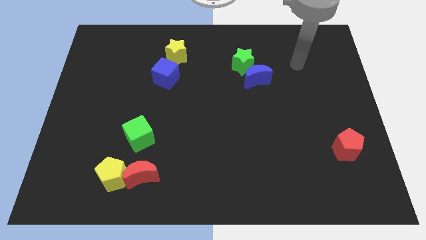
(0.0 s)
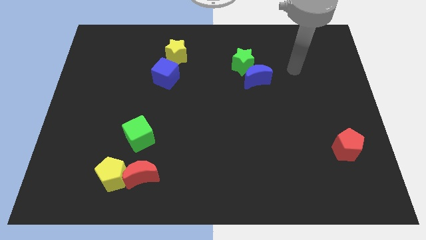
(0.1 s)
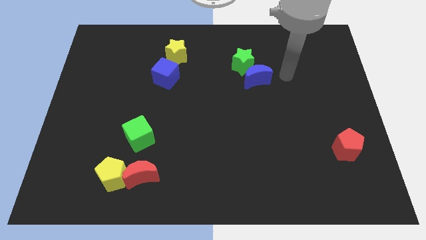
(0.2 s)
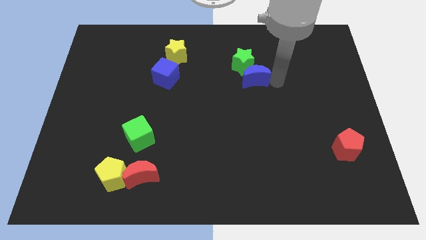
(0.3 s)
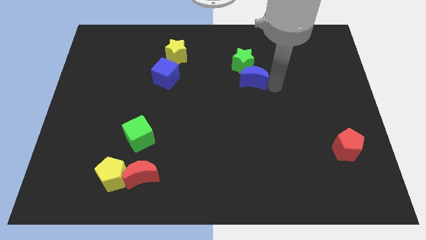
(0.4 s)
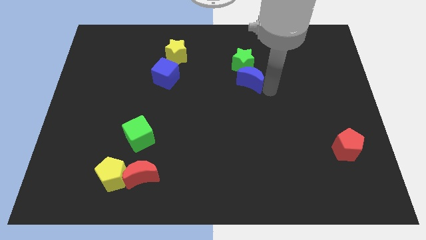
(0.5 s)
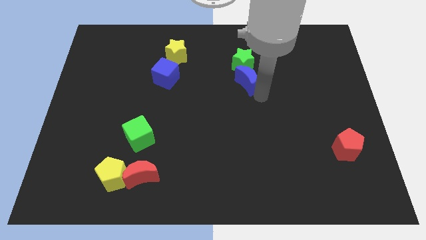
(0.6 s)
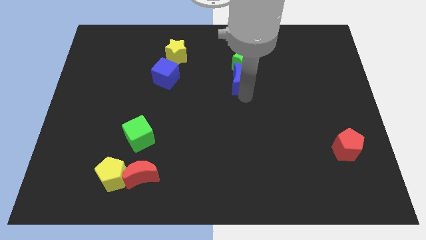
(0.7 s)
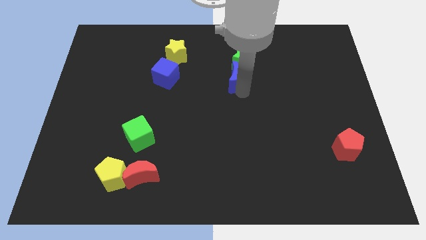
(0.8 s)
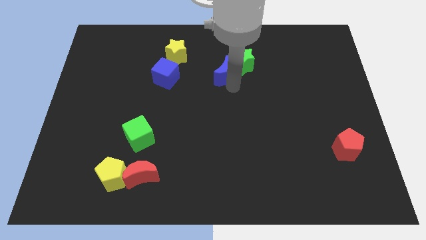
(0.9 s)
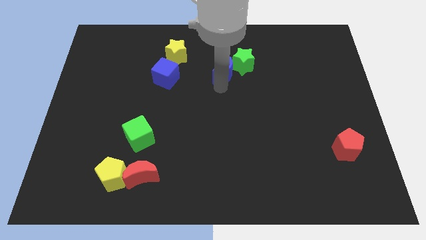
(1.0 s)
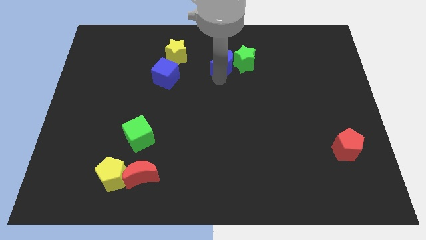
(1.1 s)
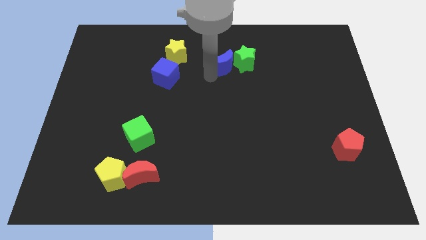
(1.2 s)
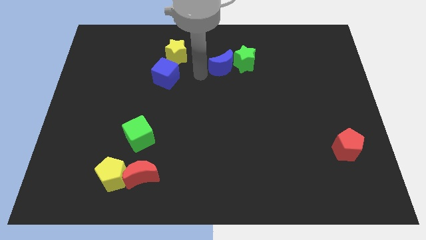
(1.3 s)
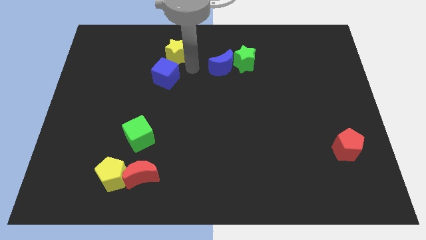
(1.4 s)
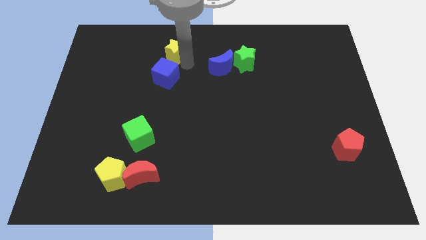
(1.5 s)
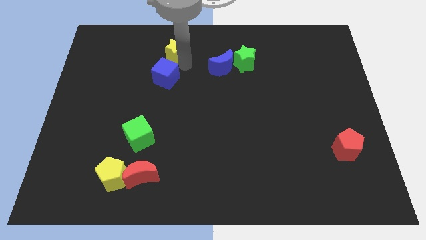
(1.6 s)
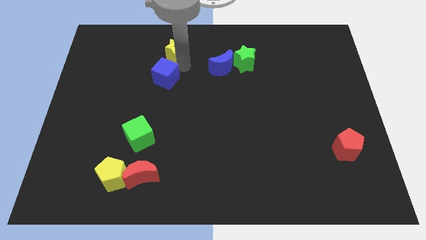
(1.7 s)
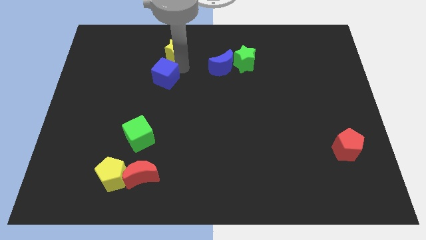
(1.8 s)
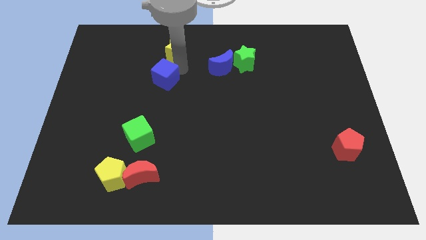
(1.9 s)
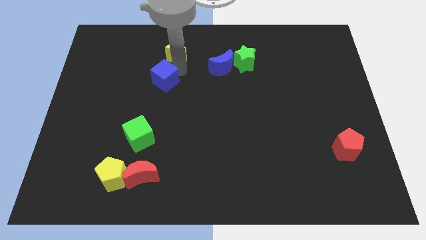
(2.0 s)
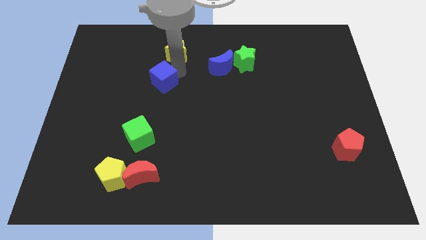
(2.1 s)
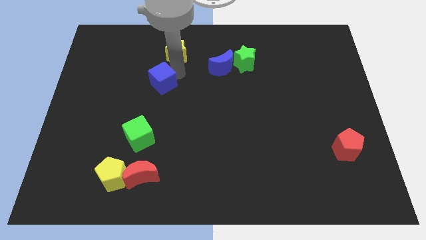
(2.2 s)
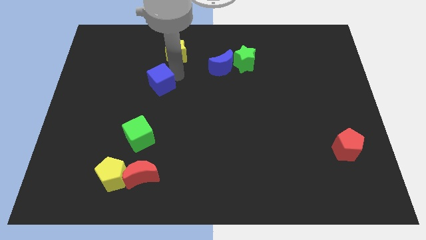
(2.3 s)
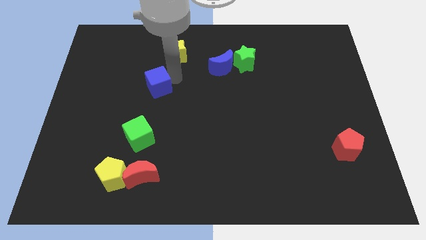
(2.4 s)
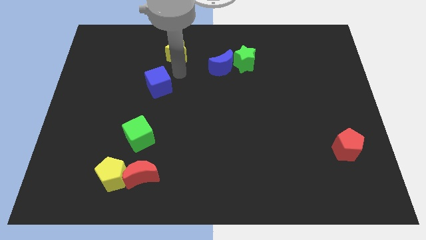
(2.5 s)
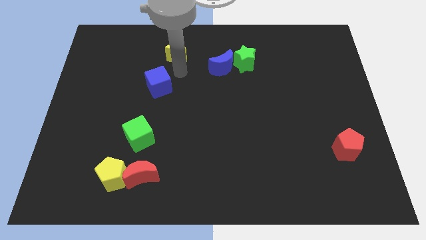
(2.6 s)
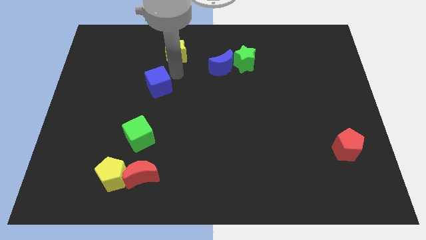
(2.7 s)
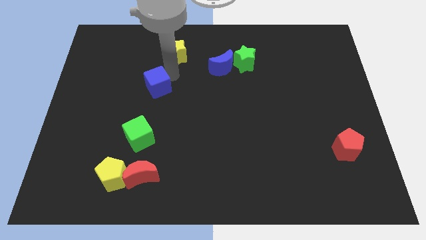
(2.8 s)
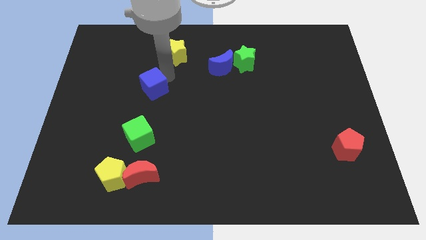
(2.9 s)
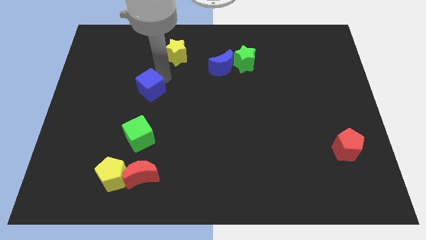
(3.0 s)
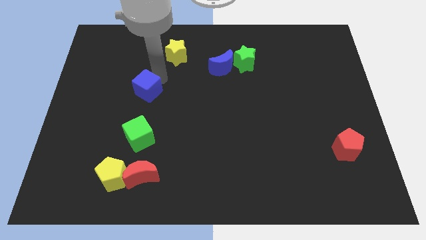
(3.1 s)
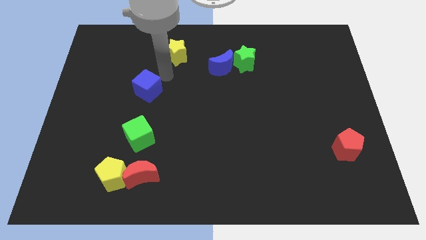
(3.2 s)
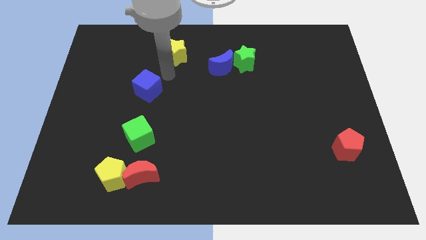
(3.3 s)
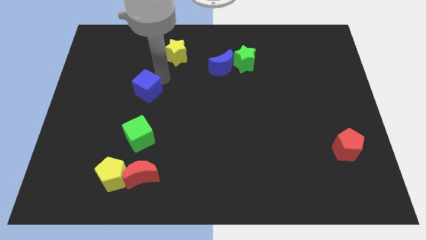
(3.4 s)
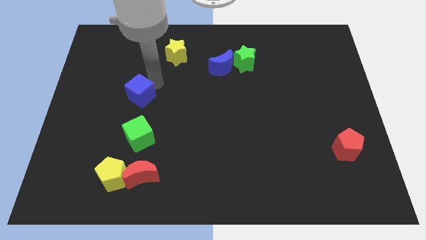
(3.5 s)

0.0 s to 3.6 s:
slide the blue cube diagonally down and to the left a bit

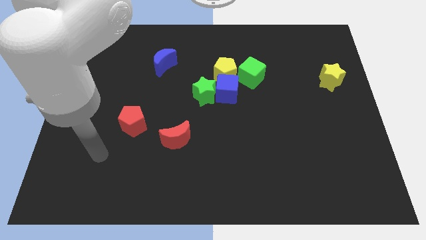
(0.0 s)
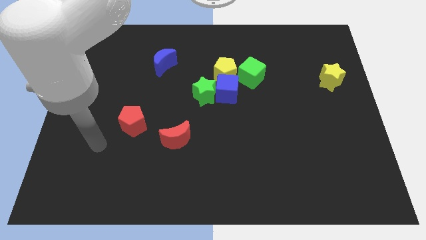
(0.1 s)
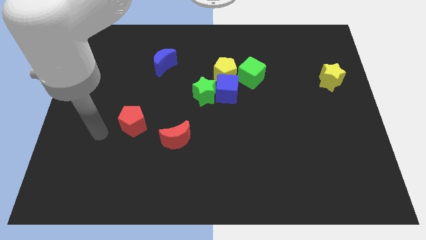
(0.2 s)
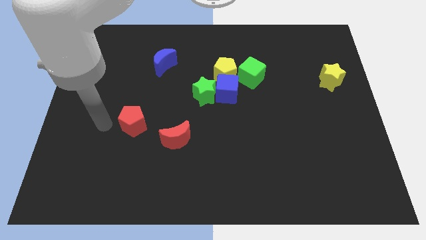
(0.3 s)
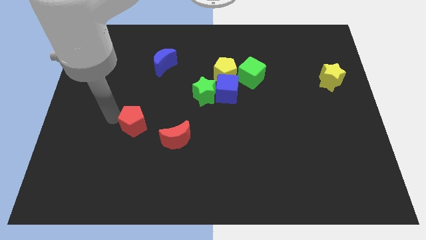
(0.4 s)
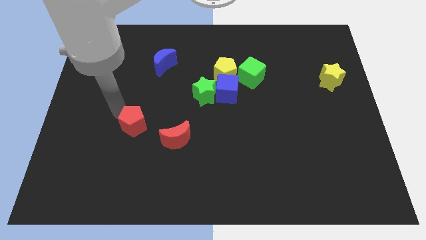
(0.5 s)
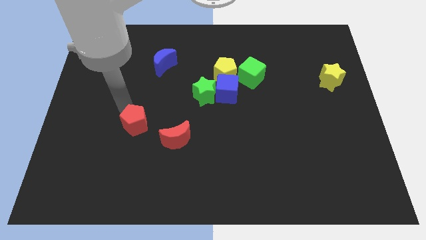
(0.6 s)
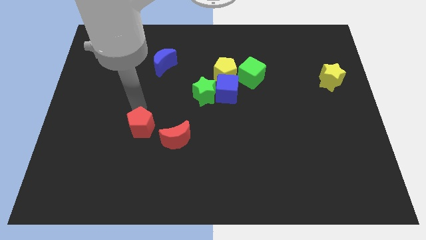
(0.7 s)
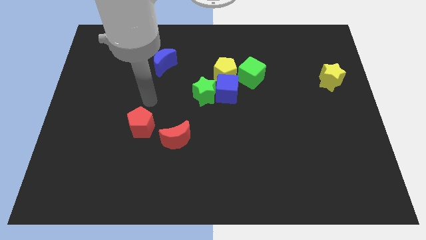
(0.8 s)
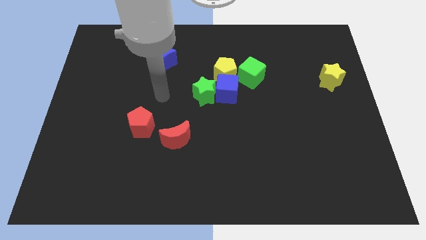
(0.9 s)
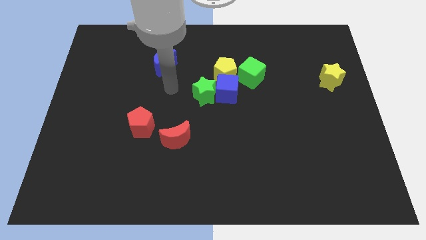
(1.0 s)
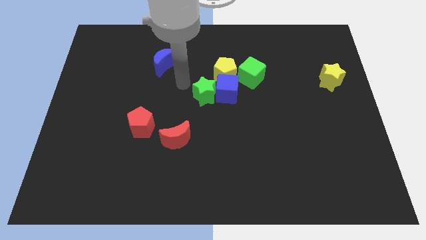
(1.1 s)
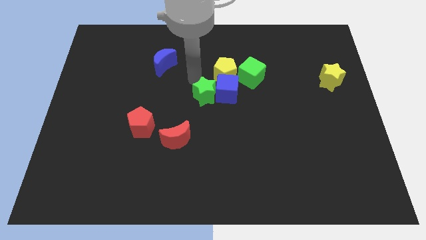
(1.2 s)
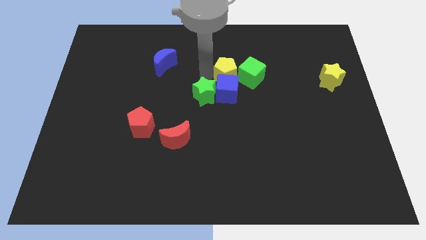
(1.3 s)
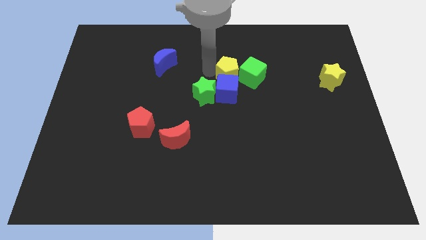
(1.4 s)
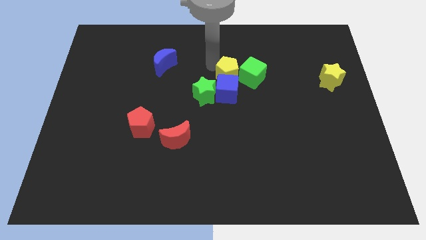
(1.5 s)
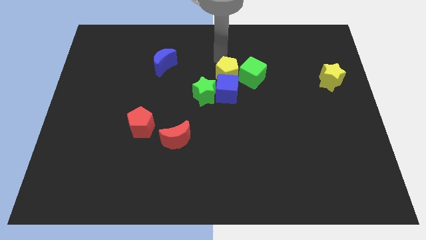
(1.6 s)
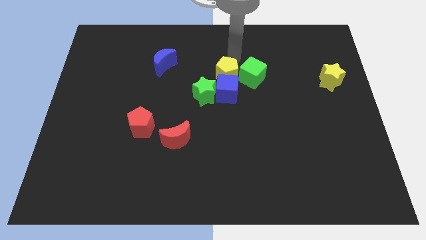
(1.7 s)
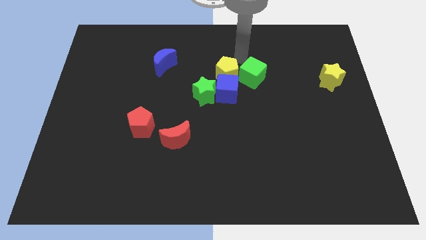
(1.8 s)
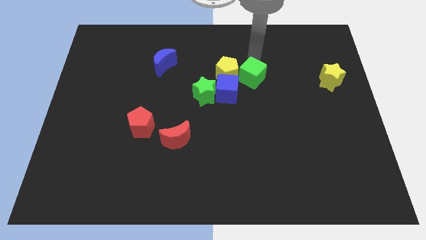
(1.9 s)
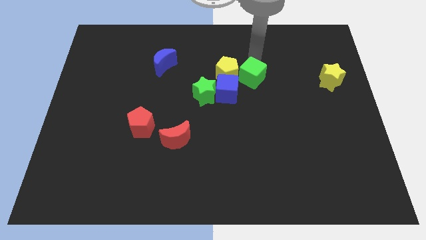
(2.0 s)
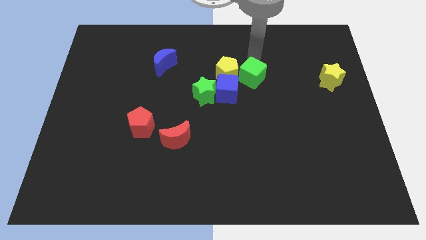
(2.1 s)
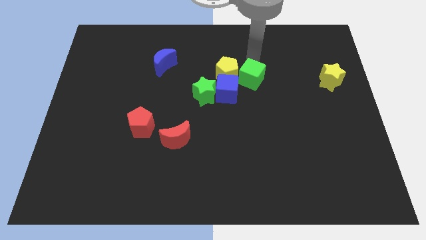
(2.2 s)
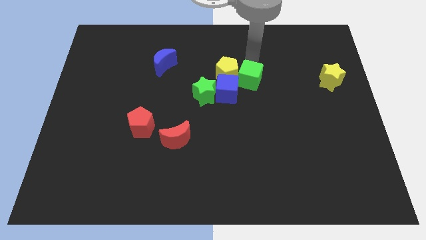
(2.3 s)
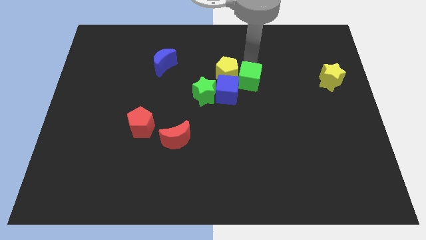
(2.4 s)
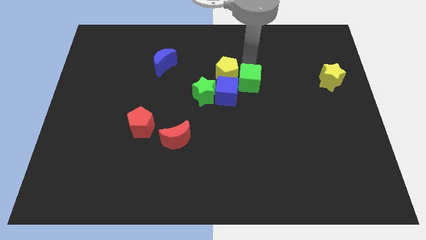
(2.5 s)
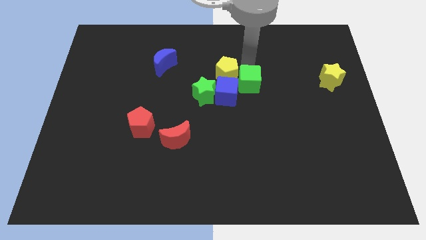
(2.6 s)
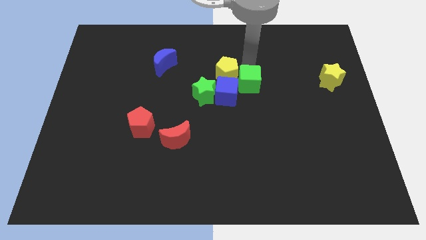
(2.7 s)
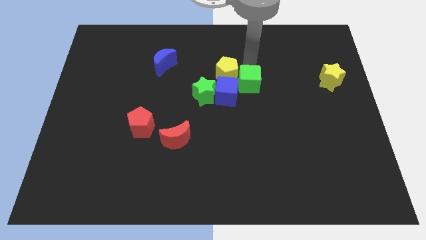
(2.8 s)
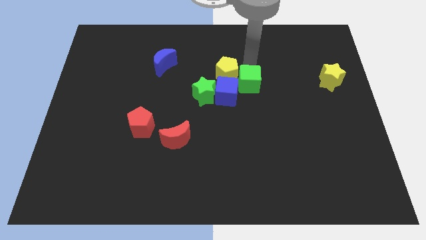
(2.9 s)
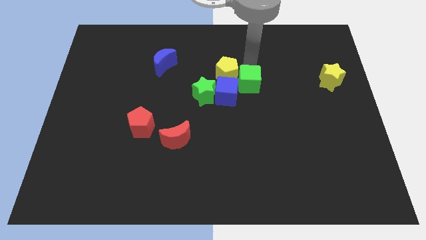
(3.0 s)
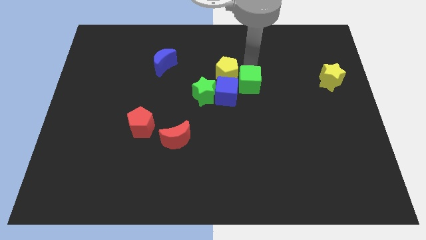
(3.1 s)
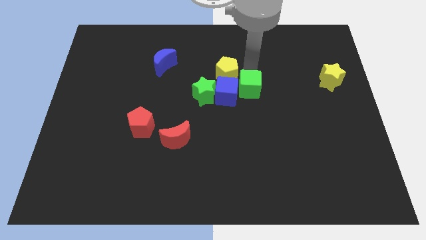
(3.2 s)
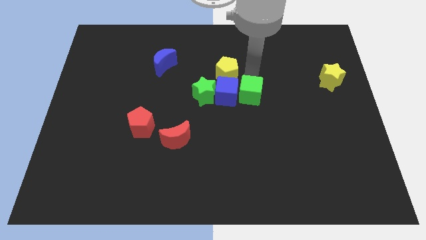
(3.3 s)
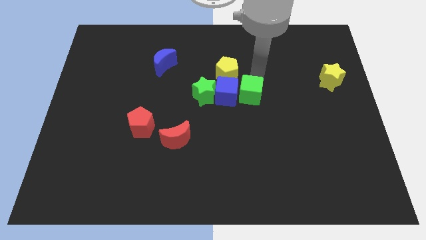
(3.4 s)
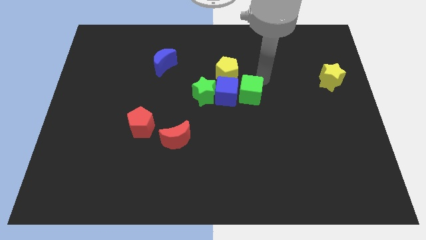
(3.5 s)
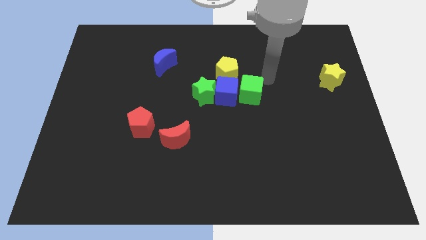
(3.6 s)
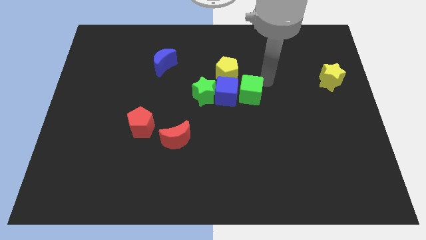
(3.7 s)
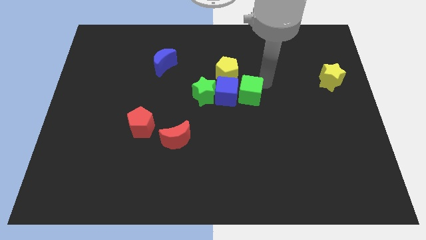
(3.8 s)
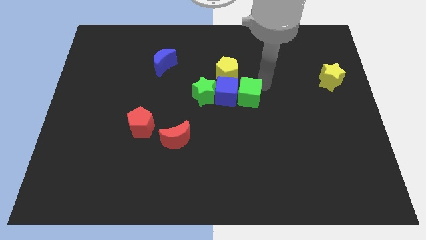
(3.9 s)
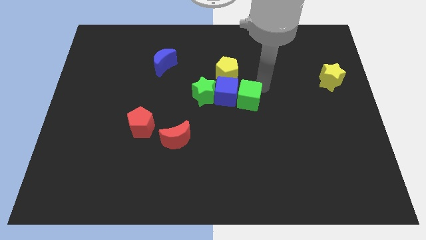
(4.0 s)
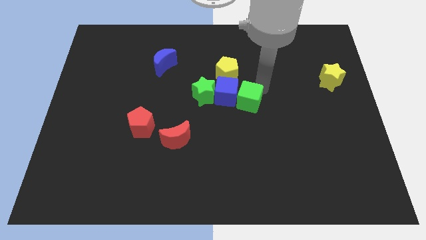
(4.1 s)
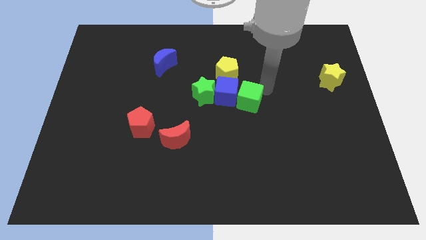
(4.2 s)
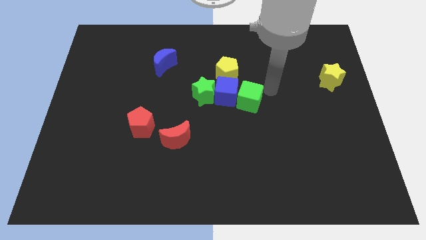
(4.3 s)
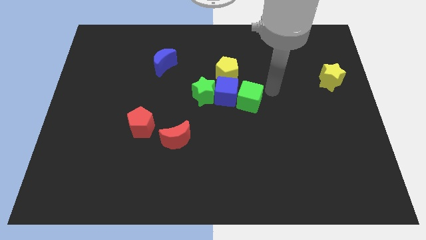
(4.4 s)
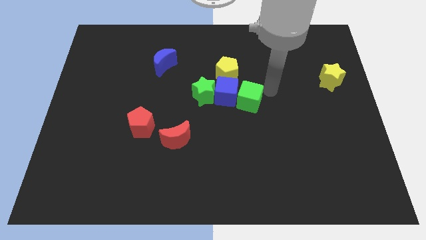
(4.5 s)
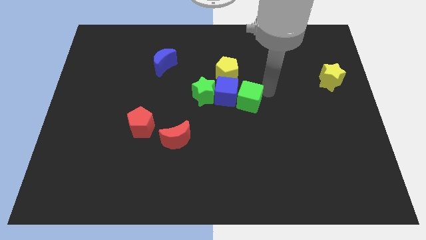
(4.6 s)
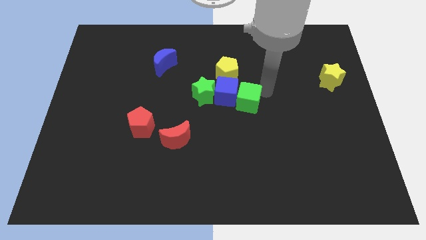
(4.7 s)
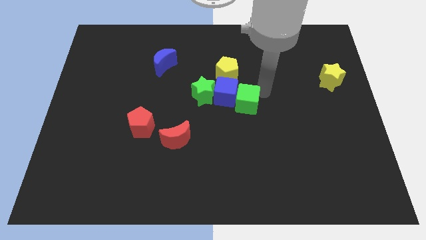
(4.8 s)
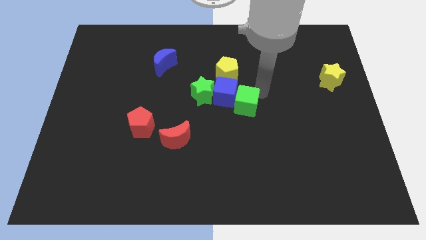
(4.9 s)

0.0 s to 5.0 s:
move the green cube a bit down and to the left

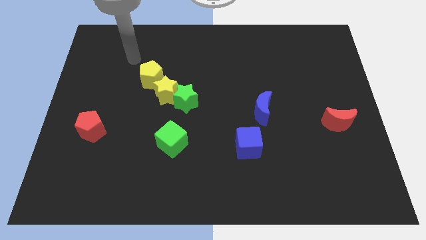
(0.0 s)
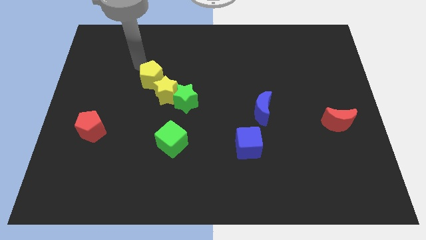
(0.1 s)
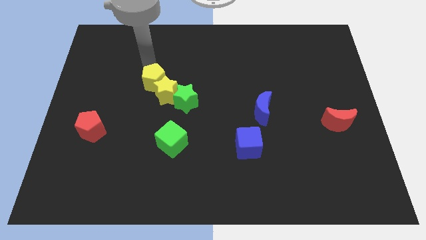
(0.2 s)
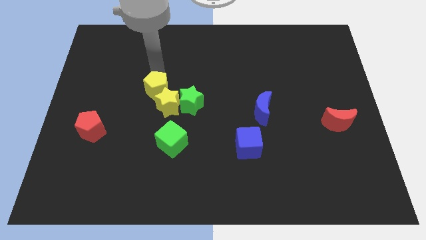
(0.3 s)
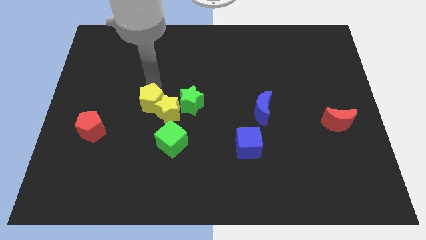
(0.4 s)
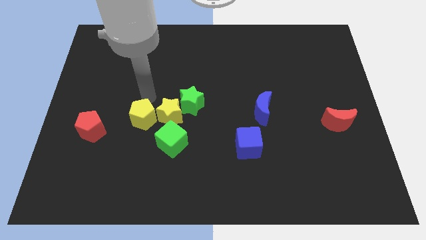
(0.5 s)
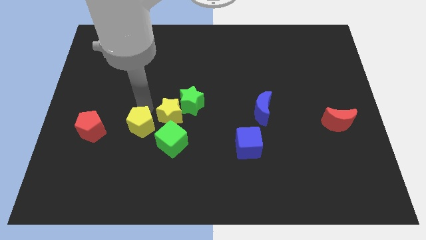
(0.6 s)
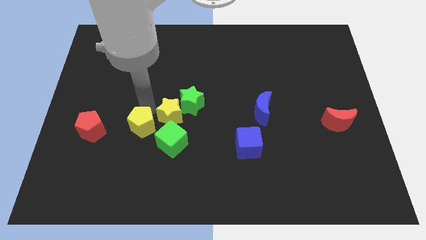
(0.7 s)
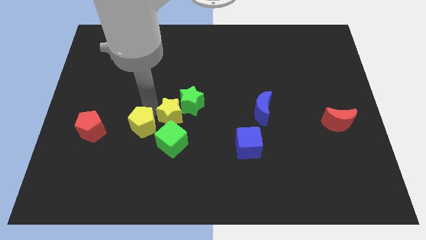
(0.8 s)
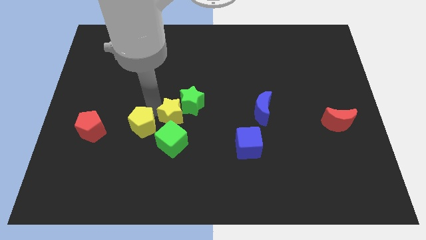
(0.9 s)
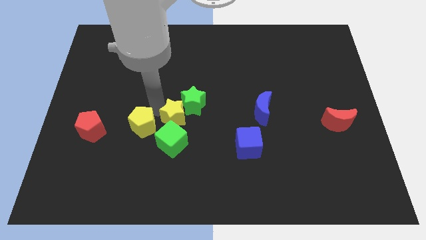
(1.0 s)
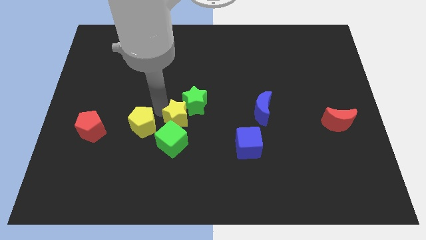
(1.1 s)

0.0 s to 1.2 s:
slide the yellow star down and to the right a bit
